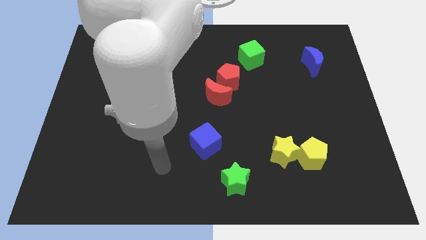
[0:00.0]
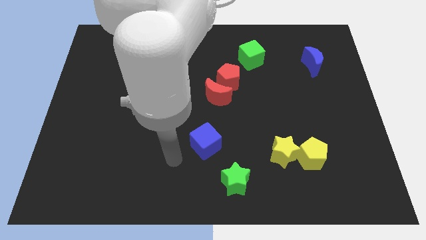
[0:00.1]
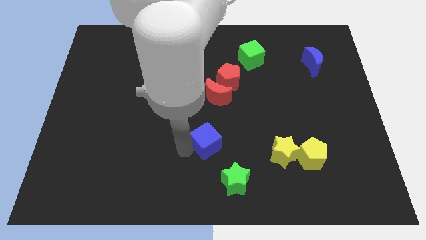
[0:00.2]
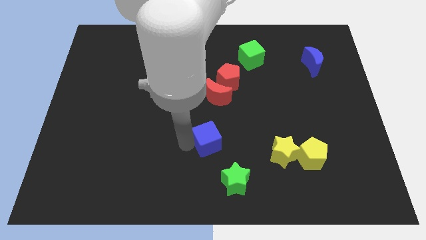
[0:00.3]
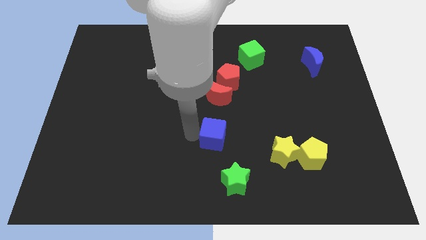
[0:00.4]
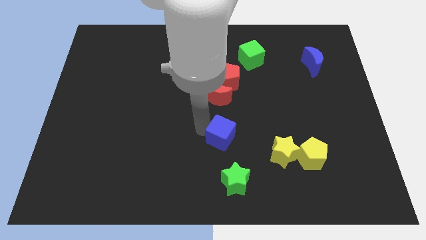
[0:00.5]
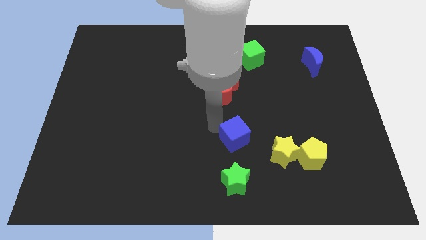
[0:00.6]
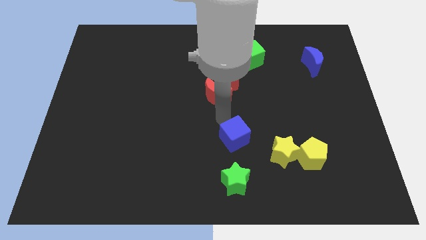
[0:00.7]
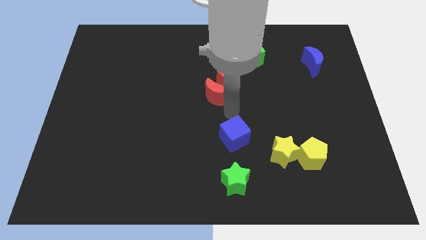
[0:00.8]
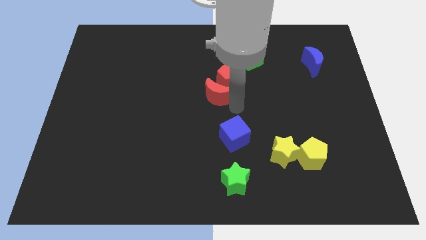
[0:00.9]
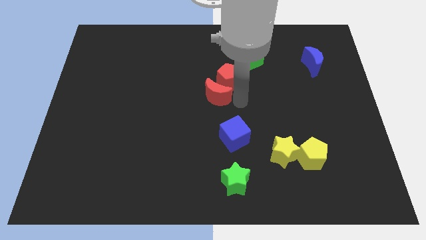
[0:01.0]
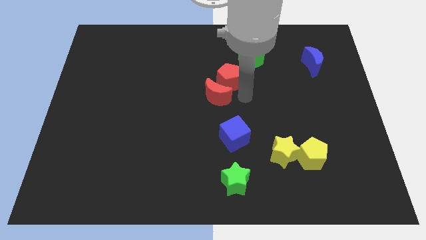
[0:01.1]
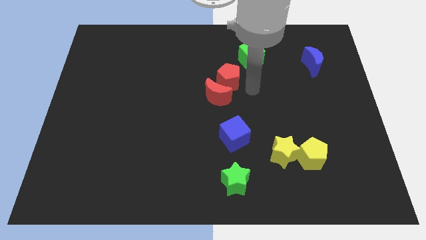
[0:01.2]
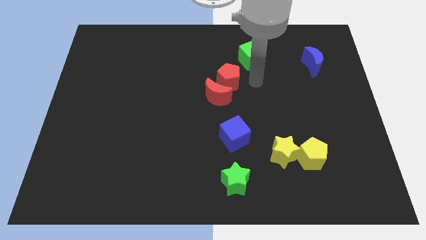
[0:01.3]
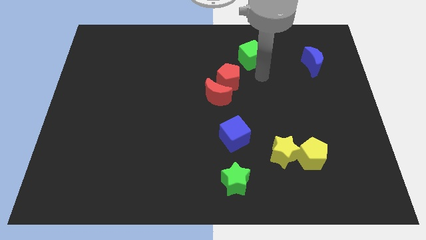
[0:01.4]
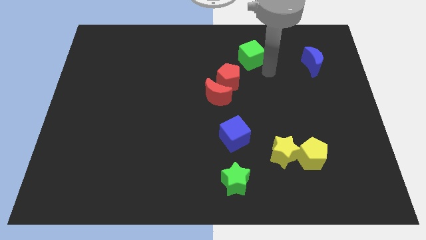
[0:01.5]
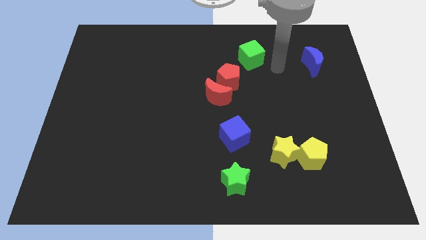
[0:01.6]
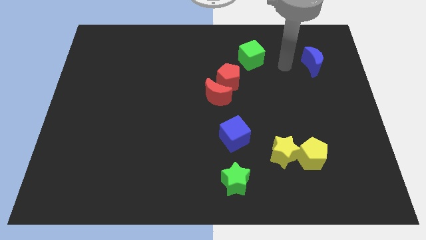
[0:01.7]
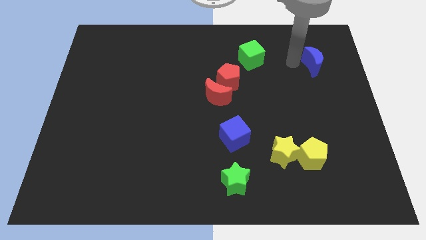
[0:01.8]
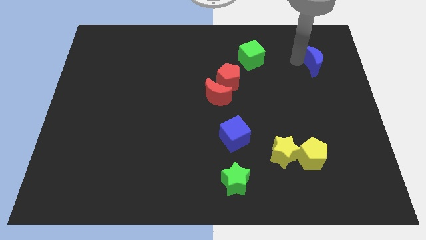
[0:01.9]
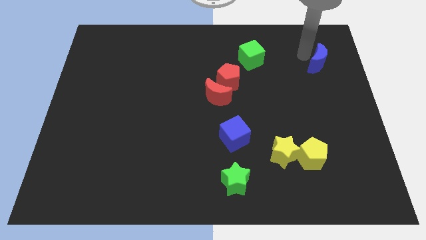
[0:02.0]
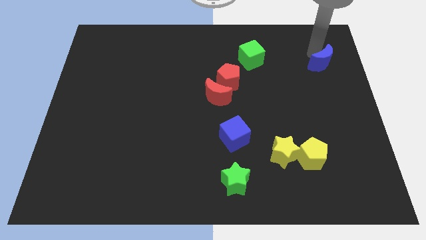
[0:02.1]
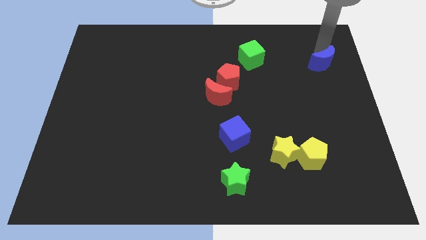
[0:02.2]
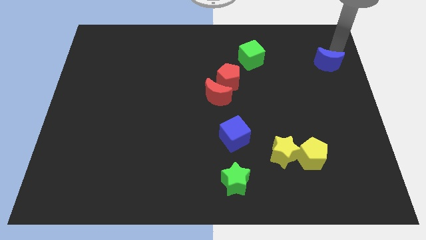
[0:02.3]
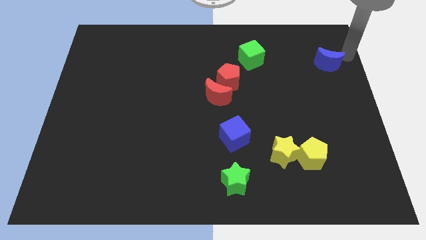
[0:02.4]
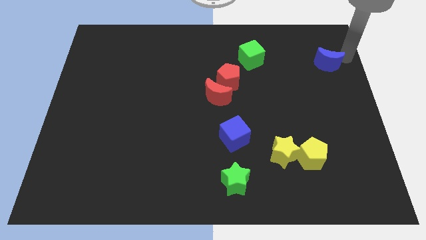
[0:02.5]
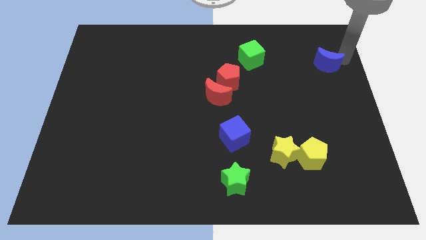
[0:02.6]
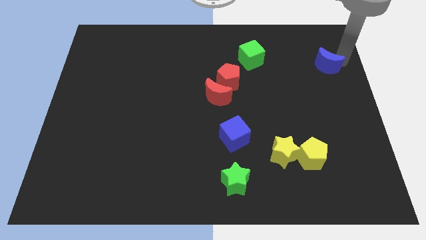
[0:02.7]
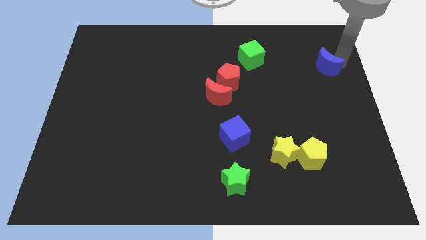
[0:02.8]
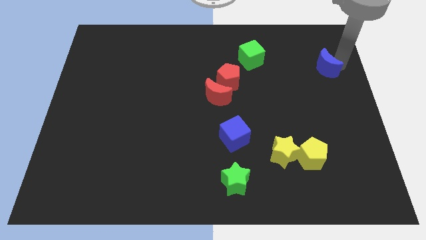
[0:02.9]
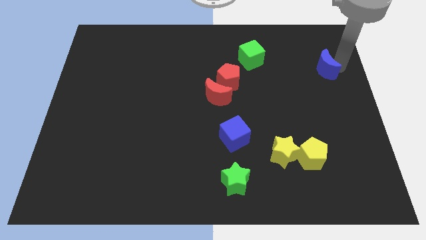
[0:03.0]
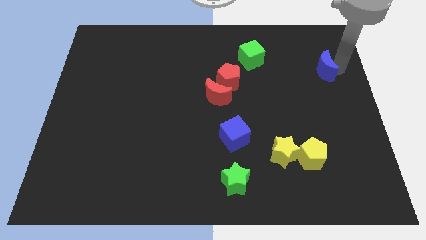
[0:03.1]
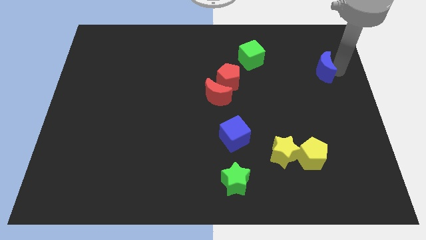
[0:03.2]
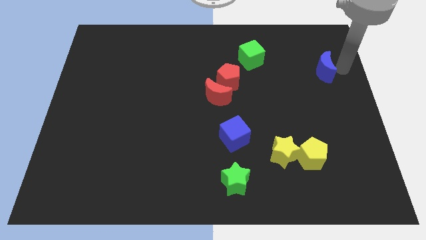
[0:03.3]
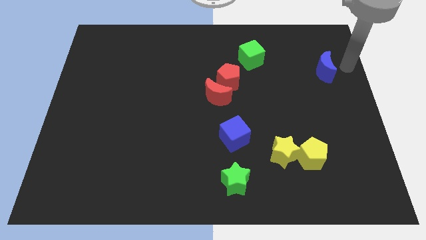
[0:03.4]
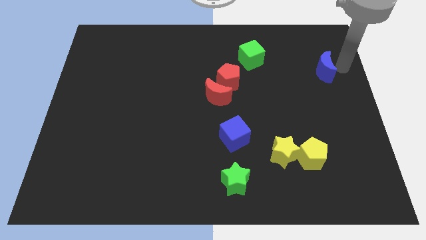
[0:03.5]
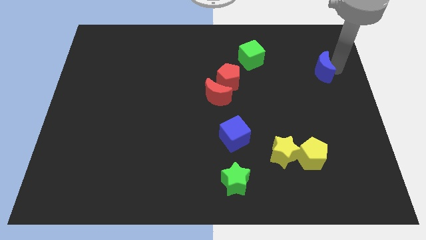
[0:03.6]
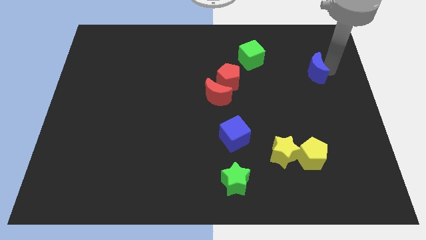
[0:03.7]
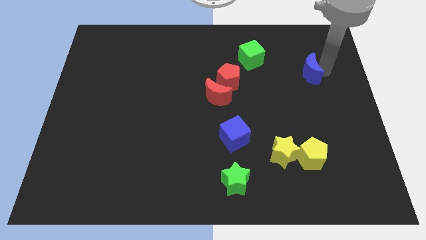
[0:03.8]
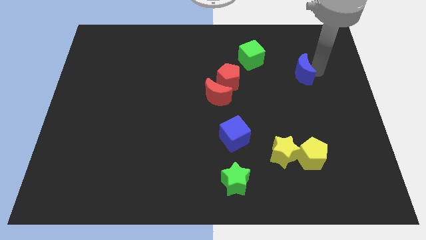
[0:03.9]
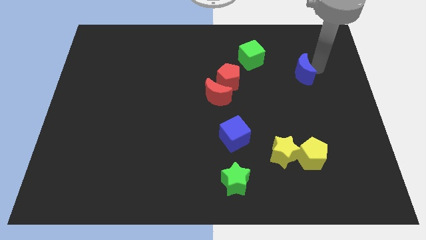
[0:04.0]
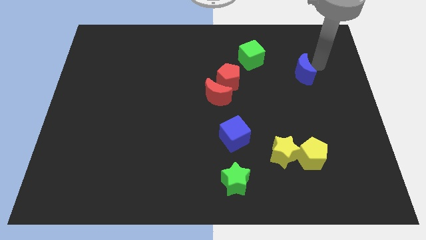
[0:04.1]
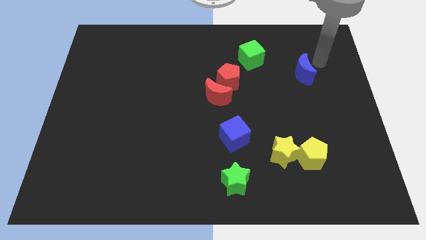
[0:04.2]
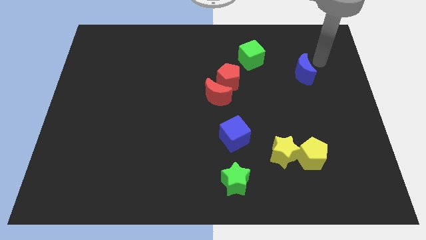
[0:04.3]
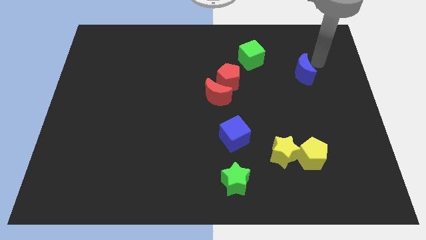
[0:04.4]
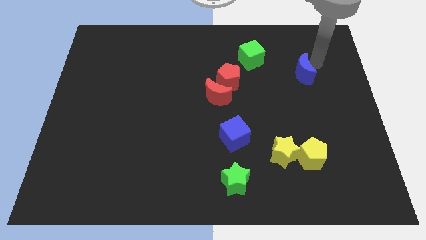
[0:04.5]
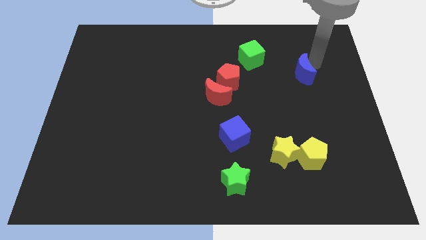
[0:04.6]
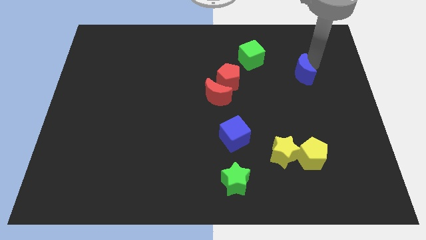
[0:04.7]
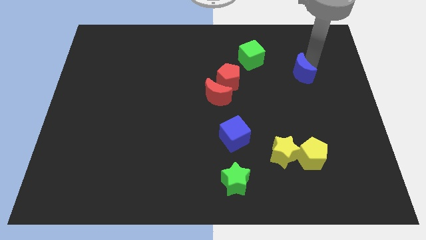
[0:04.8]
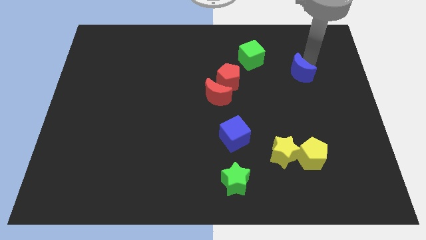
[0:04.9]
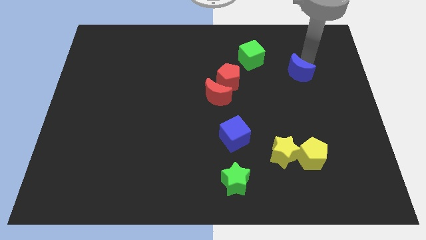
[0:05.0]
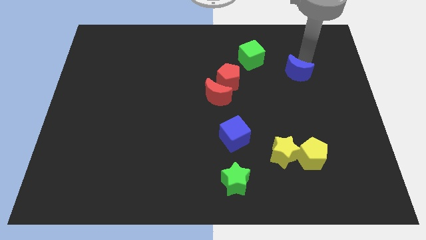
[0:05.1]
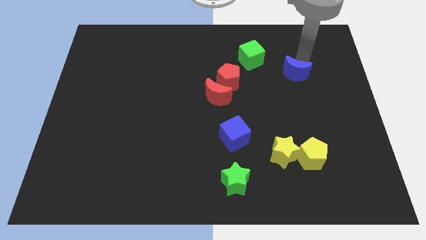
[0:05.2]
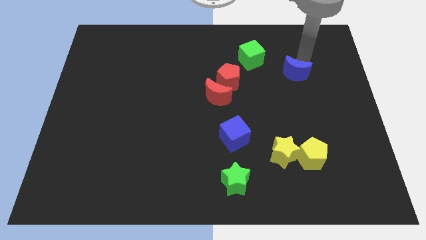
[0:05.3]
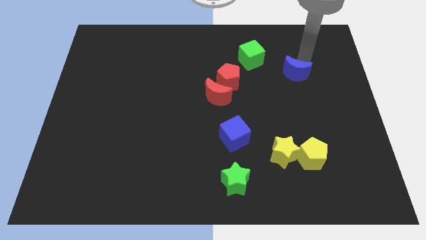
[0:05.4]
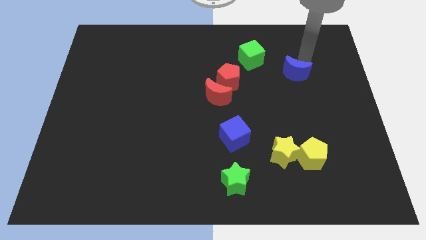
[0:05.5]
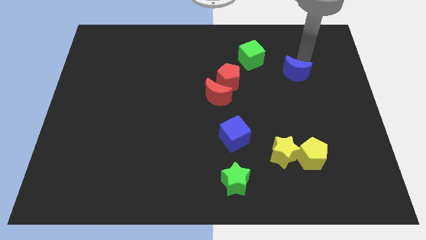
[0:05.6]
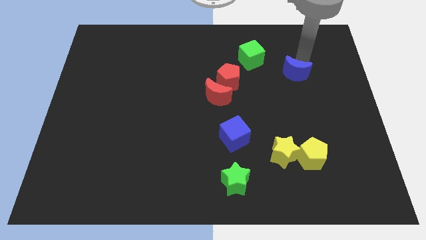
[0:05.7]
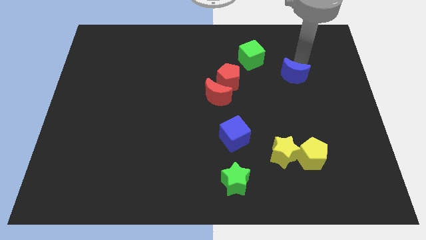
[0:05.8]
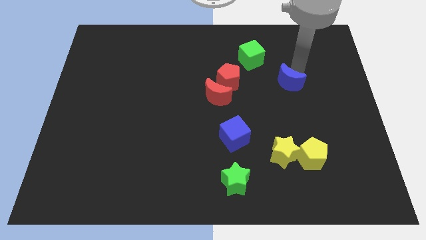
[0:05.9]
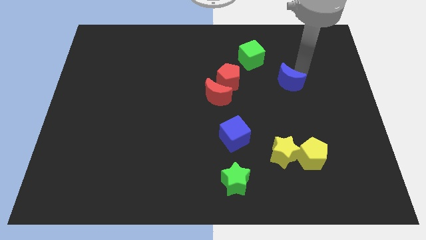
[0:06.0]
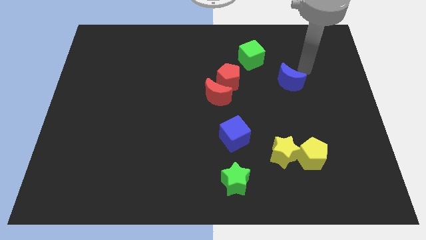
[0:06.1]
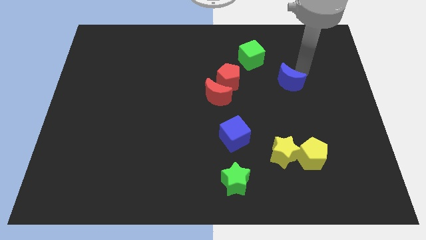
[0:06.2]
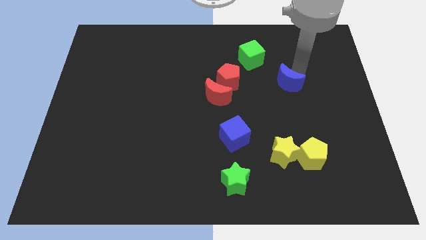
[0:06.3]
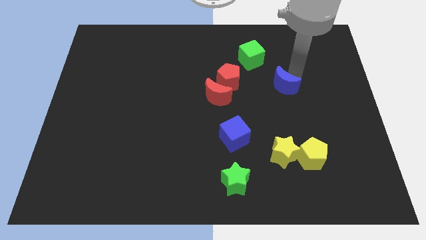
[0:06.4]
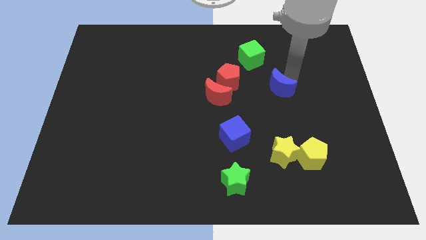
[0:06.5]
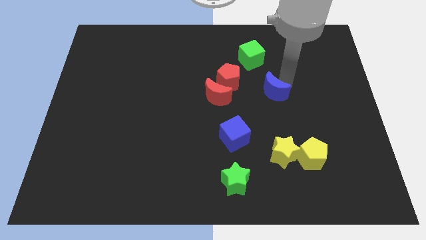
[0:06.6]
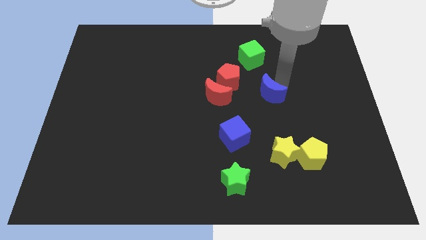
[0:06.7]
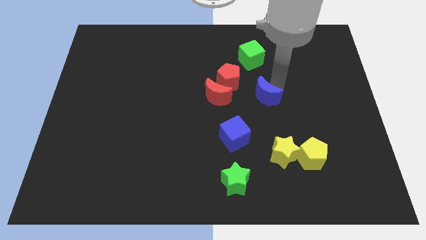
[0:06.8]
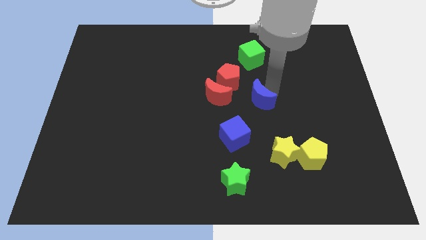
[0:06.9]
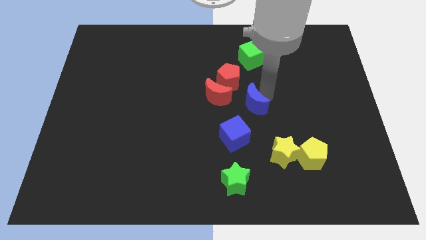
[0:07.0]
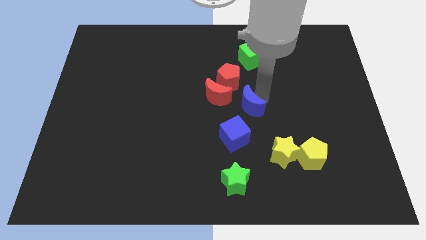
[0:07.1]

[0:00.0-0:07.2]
push the blue moon below the red pentagon
